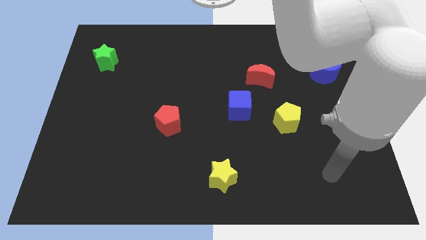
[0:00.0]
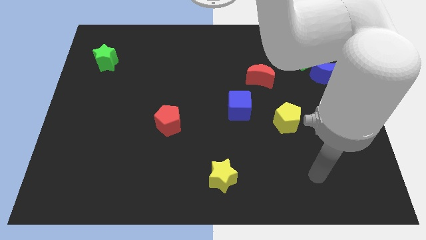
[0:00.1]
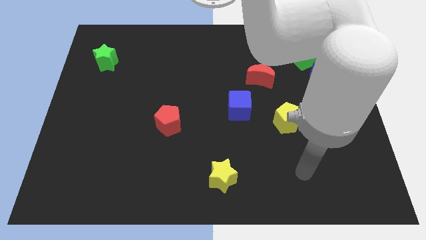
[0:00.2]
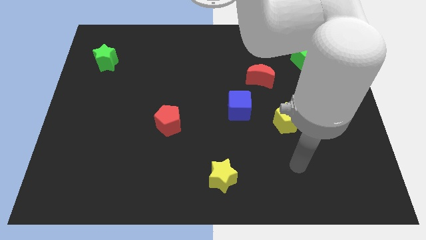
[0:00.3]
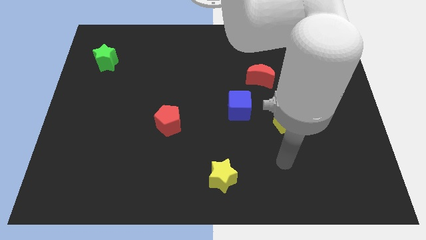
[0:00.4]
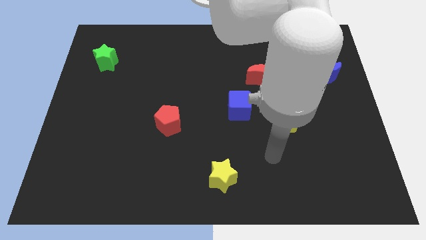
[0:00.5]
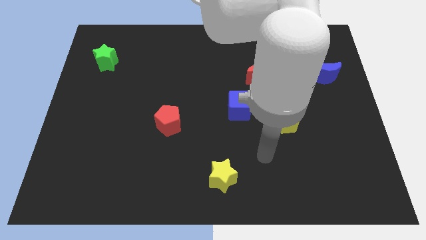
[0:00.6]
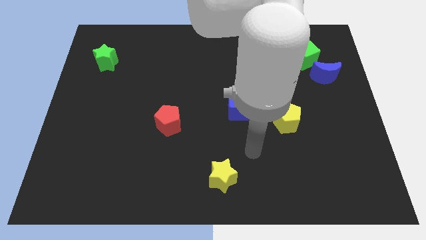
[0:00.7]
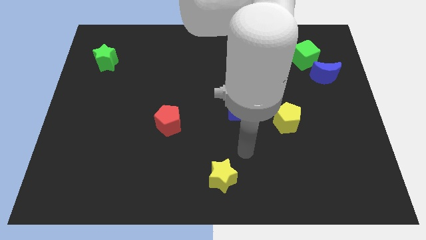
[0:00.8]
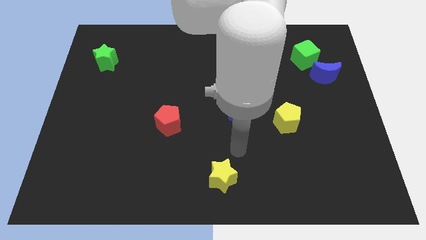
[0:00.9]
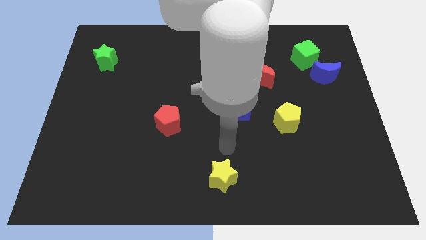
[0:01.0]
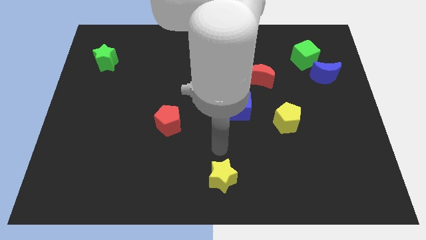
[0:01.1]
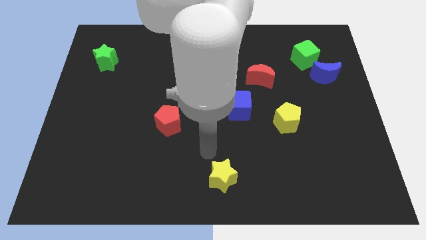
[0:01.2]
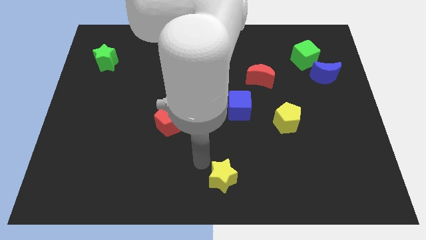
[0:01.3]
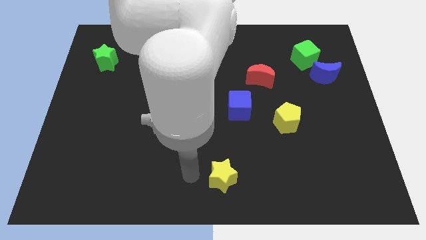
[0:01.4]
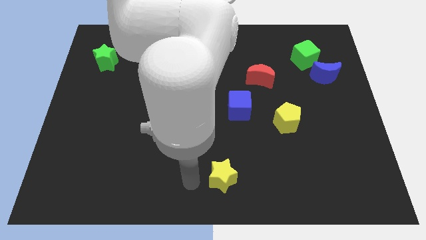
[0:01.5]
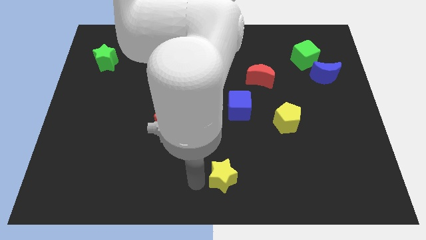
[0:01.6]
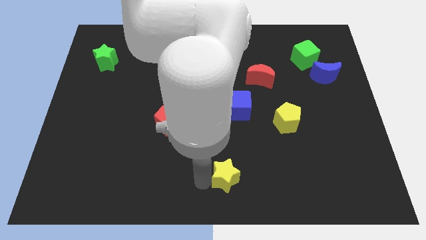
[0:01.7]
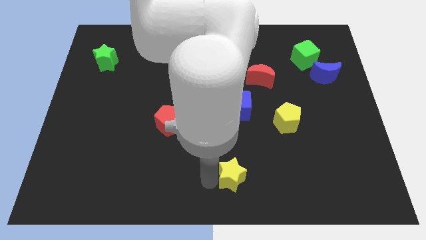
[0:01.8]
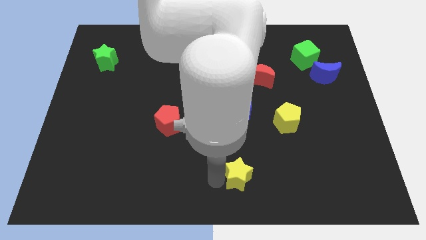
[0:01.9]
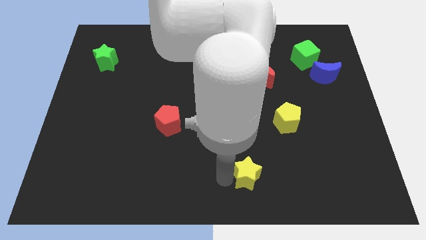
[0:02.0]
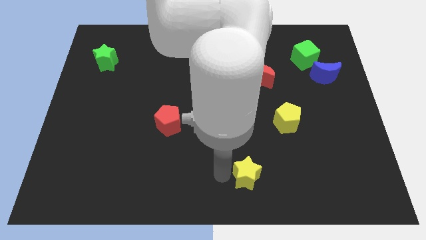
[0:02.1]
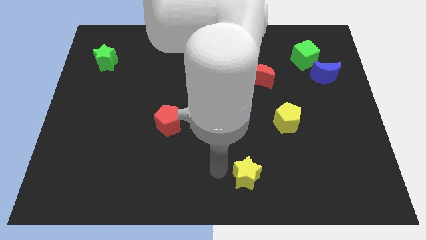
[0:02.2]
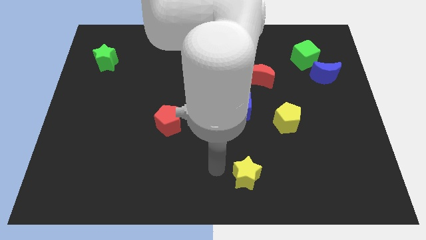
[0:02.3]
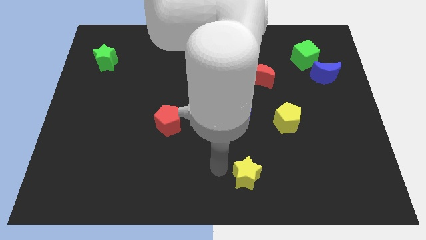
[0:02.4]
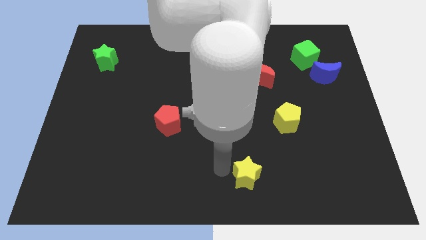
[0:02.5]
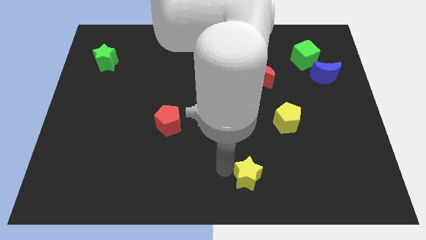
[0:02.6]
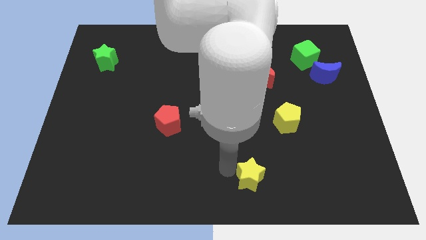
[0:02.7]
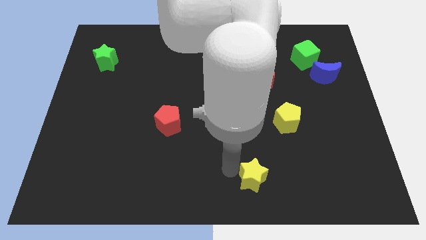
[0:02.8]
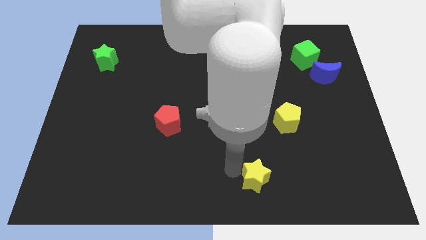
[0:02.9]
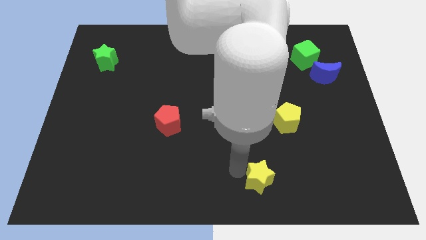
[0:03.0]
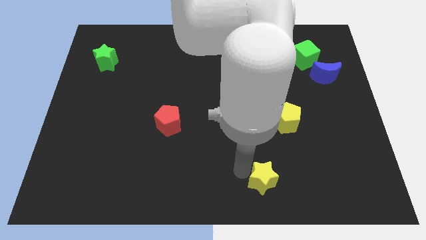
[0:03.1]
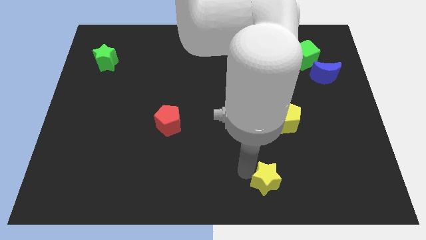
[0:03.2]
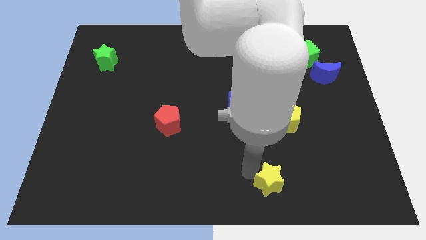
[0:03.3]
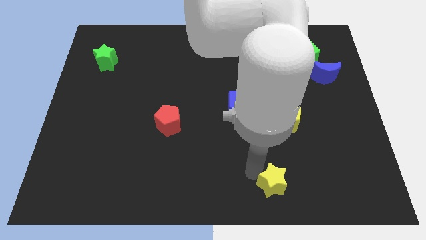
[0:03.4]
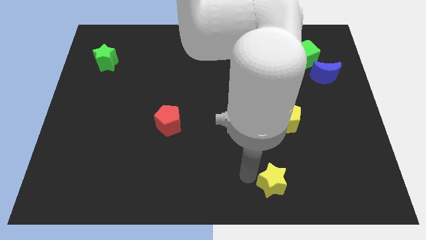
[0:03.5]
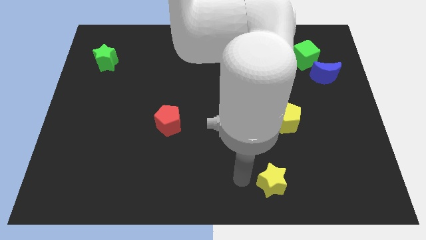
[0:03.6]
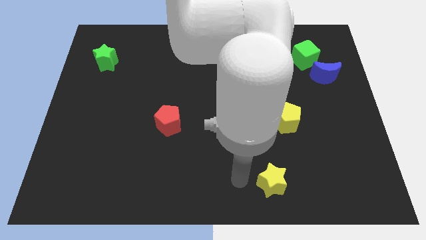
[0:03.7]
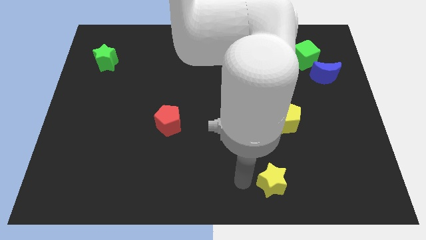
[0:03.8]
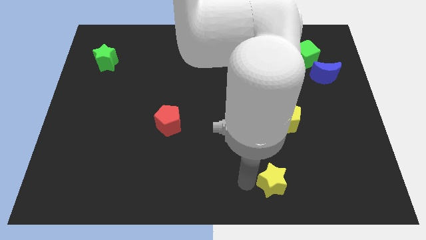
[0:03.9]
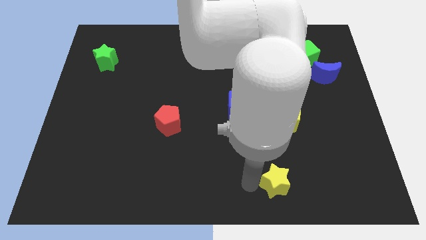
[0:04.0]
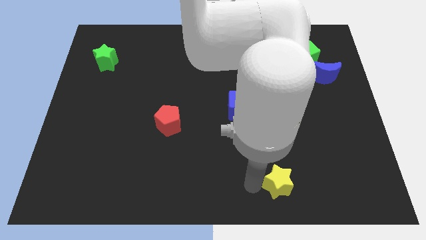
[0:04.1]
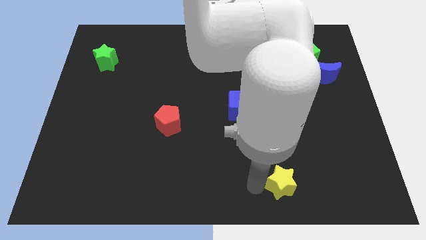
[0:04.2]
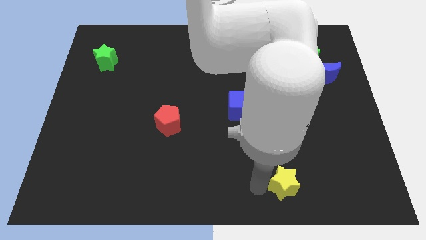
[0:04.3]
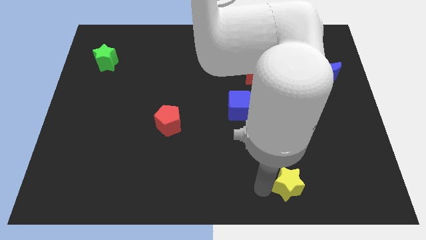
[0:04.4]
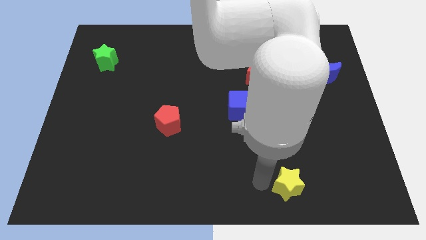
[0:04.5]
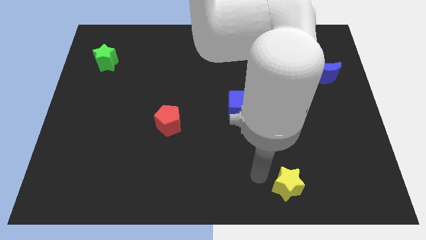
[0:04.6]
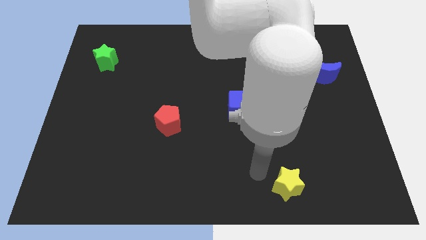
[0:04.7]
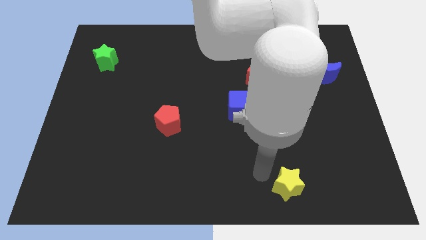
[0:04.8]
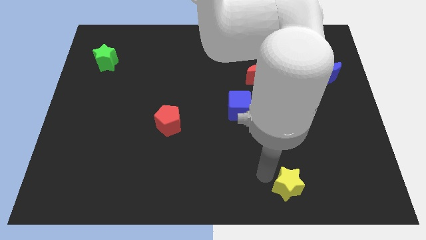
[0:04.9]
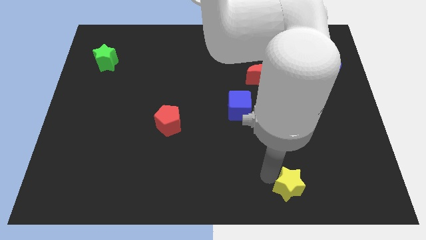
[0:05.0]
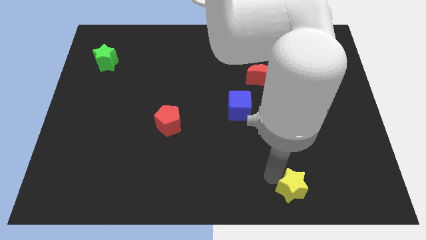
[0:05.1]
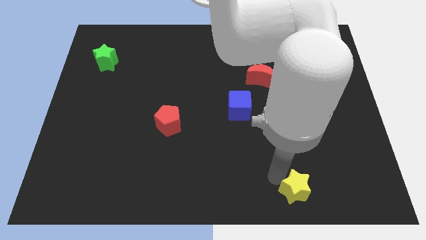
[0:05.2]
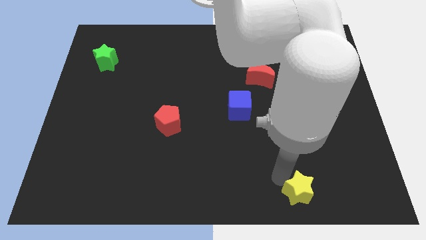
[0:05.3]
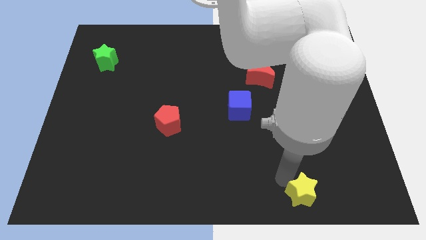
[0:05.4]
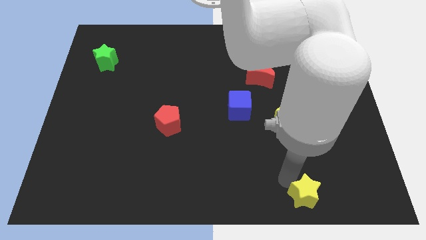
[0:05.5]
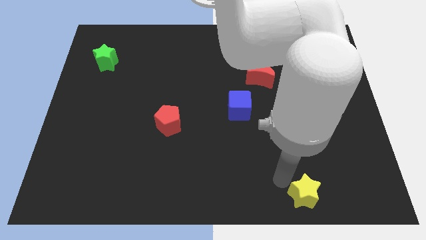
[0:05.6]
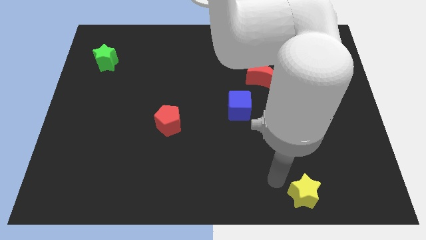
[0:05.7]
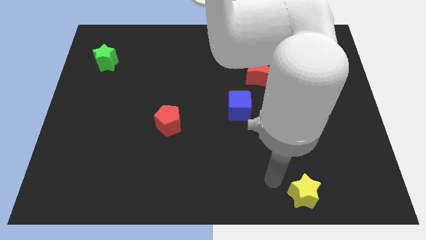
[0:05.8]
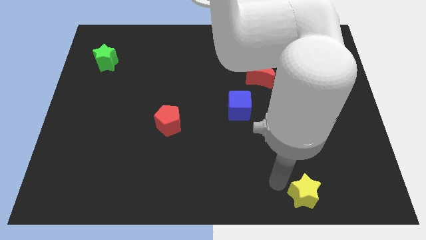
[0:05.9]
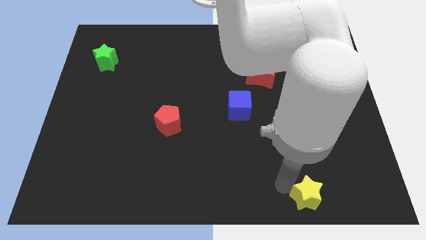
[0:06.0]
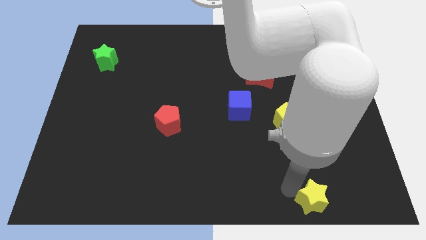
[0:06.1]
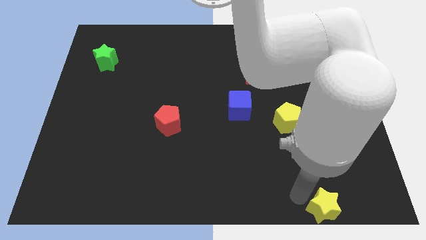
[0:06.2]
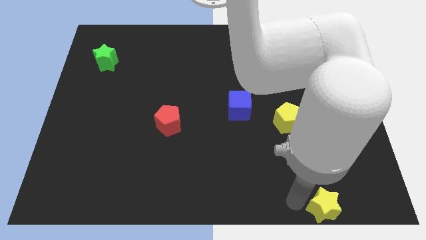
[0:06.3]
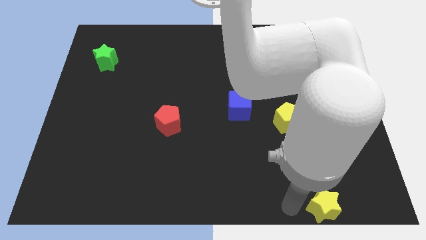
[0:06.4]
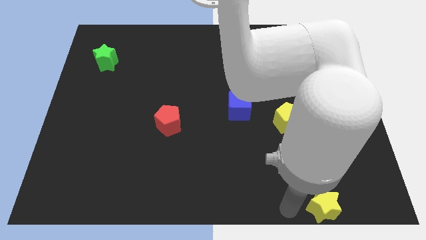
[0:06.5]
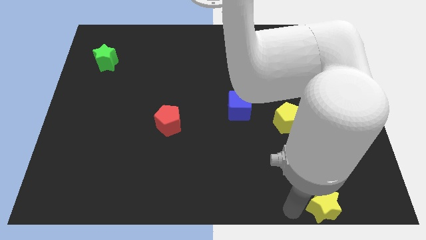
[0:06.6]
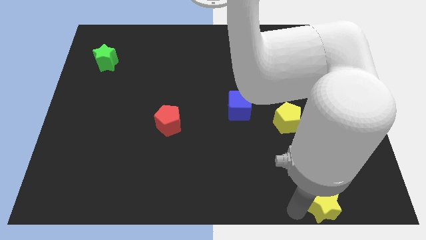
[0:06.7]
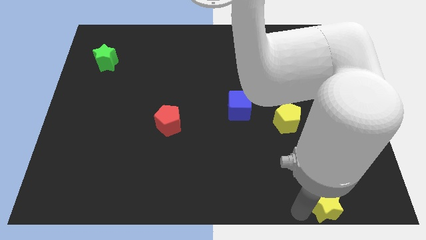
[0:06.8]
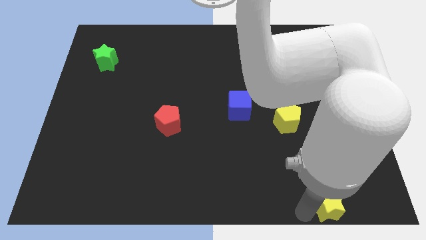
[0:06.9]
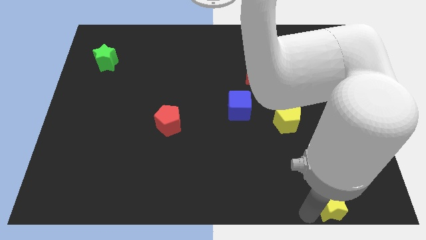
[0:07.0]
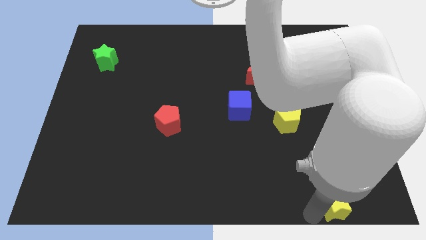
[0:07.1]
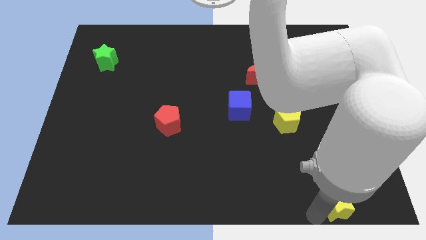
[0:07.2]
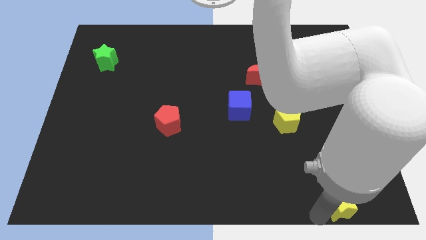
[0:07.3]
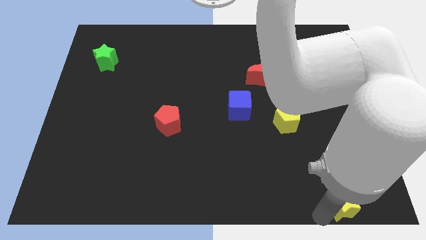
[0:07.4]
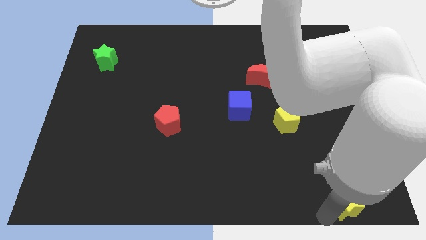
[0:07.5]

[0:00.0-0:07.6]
slide the yellow star to the lower right corner
